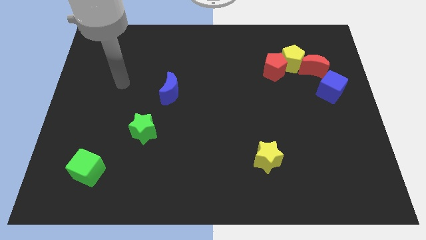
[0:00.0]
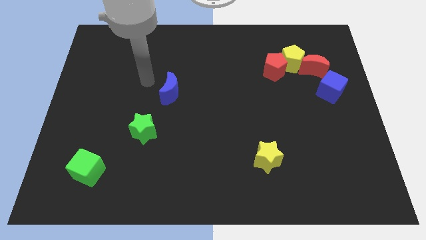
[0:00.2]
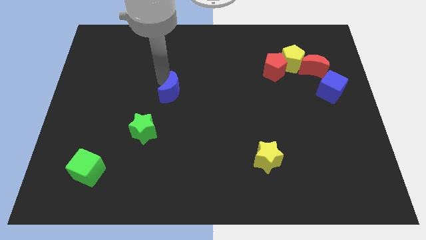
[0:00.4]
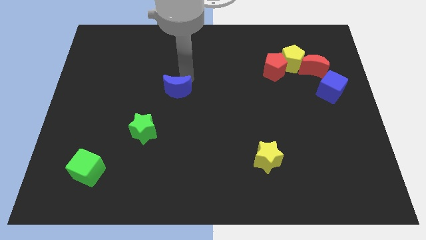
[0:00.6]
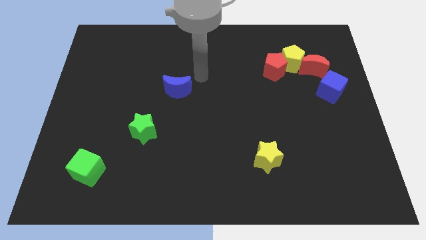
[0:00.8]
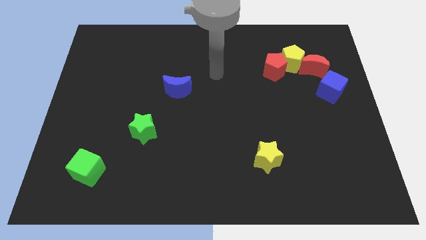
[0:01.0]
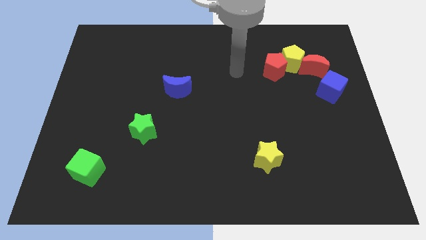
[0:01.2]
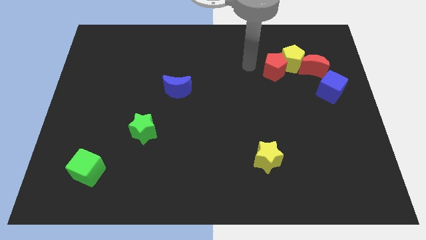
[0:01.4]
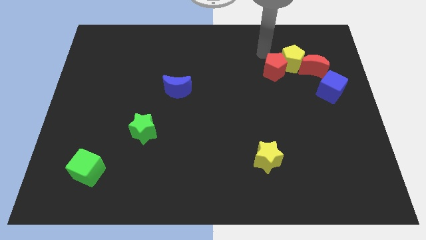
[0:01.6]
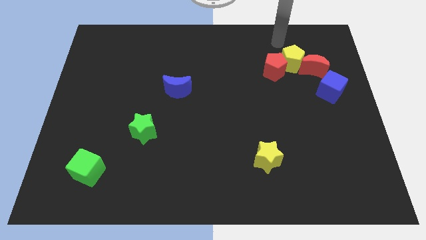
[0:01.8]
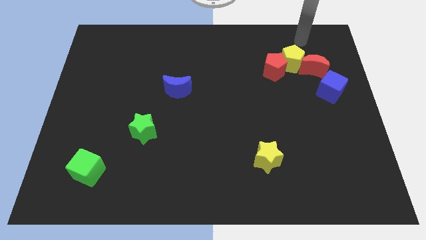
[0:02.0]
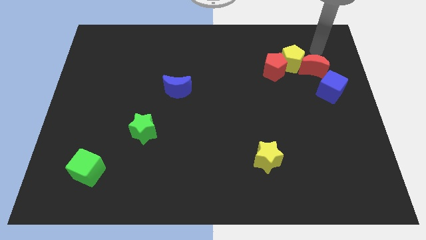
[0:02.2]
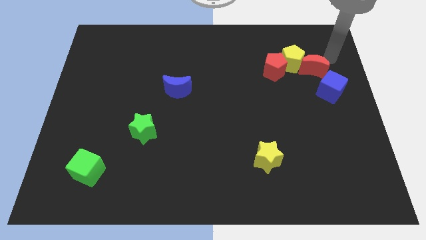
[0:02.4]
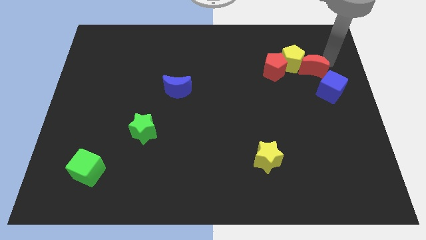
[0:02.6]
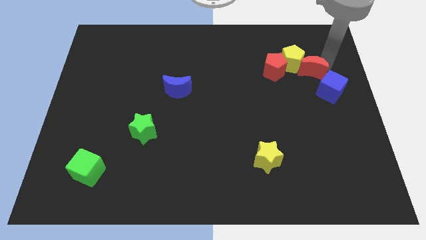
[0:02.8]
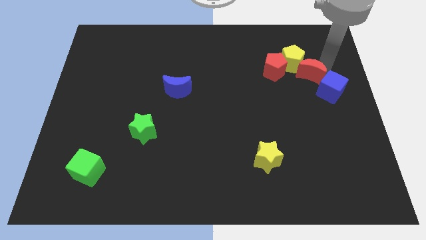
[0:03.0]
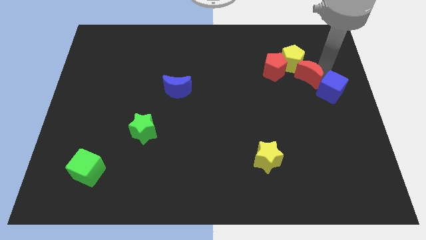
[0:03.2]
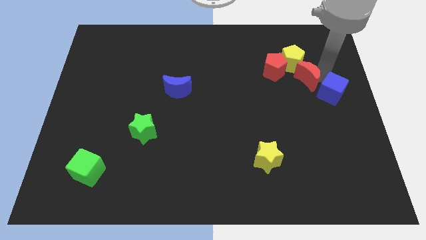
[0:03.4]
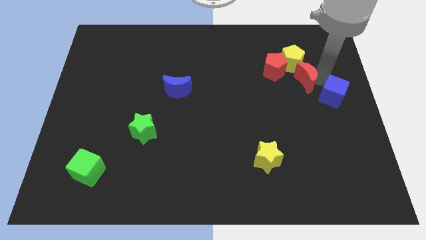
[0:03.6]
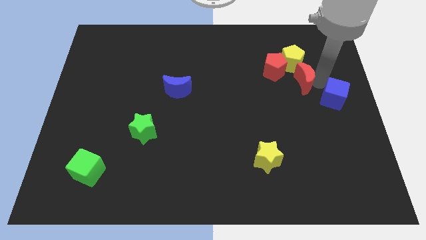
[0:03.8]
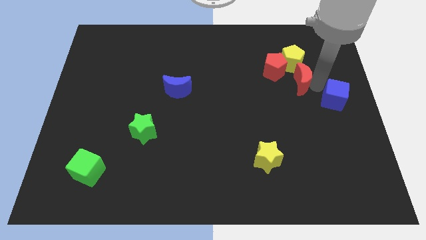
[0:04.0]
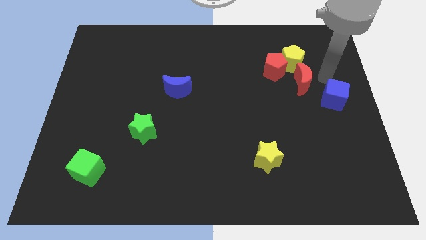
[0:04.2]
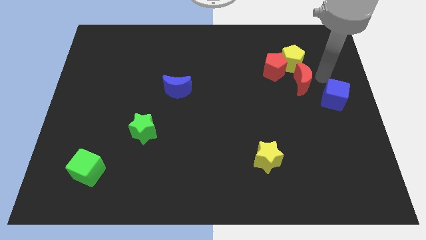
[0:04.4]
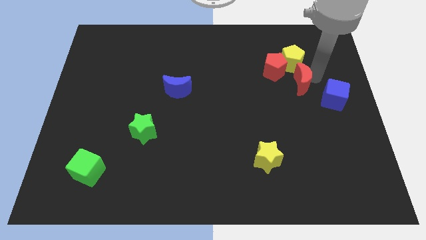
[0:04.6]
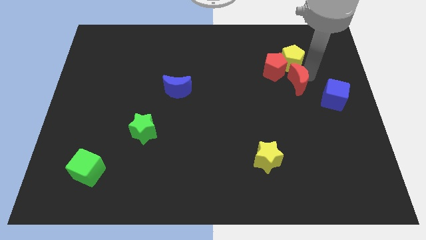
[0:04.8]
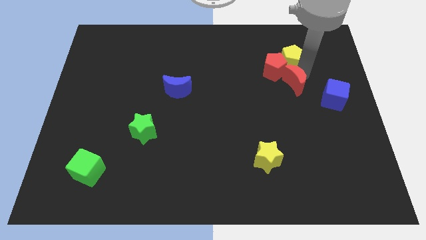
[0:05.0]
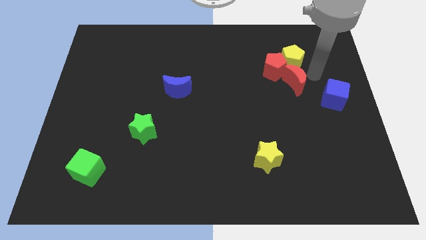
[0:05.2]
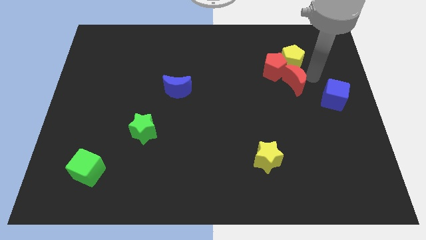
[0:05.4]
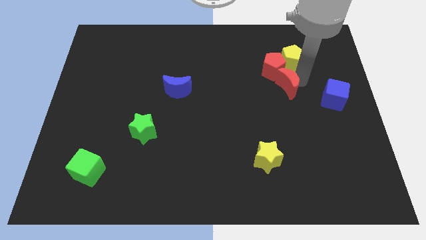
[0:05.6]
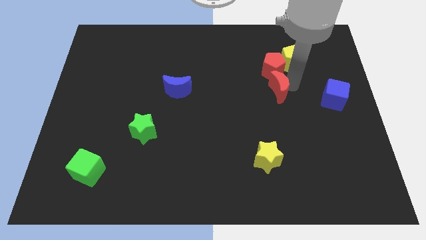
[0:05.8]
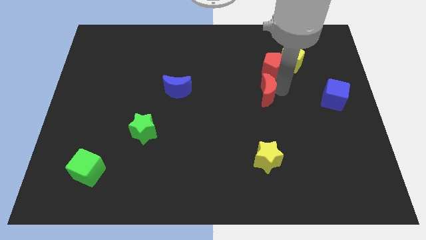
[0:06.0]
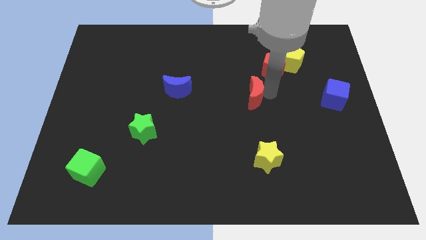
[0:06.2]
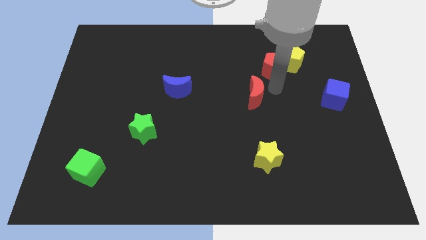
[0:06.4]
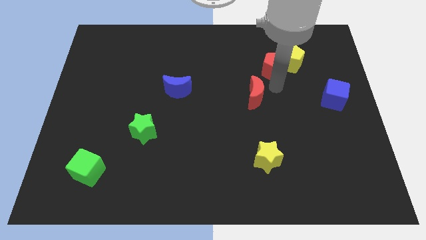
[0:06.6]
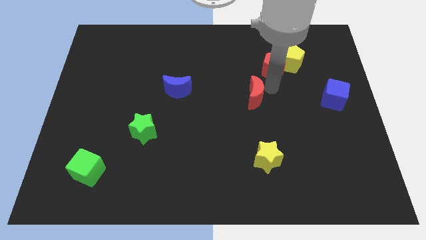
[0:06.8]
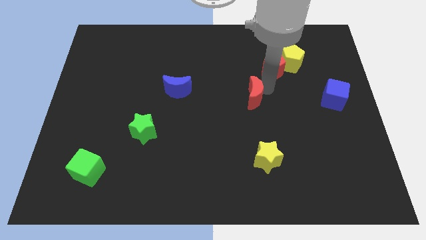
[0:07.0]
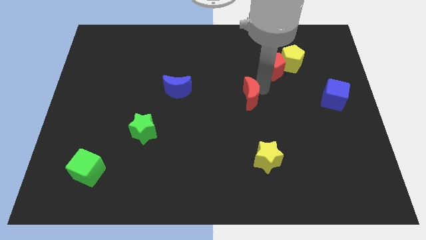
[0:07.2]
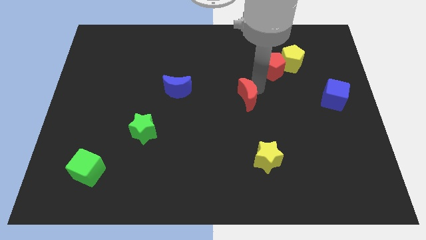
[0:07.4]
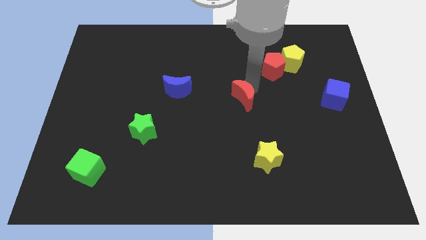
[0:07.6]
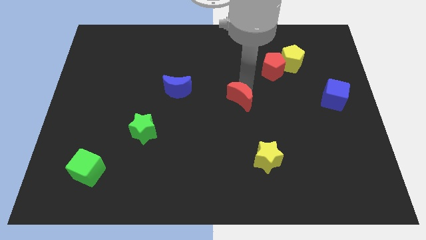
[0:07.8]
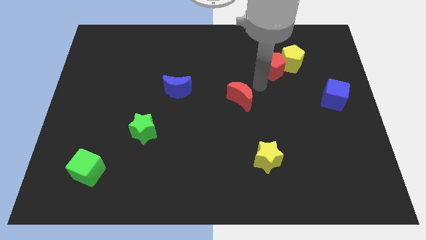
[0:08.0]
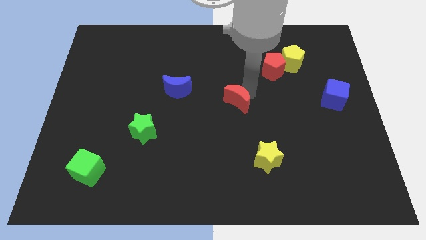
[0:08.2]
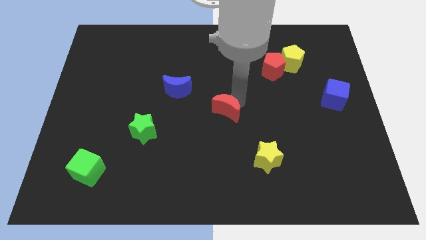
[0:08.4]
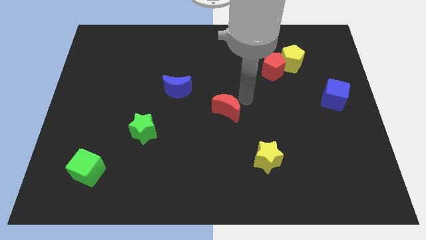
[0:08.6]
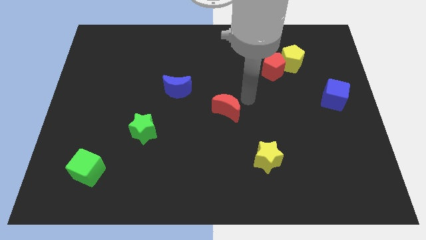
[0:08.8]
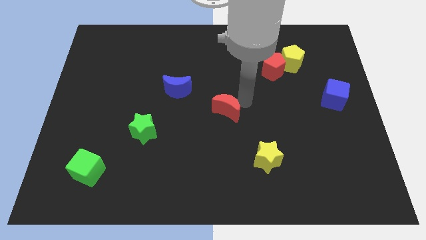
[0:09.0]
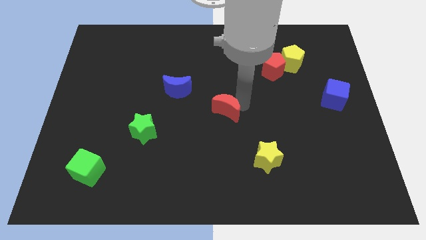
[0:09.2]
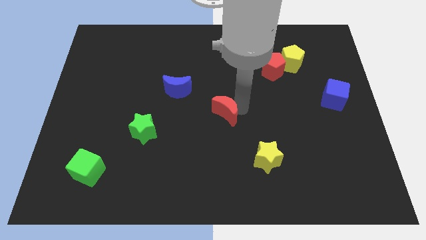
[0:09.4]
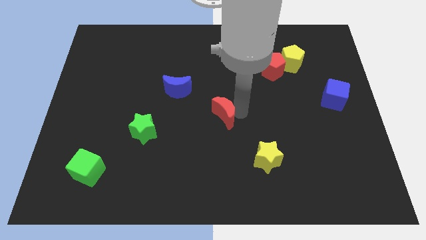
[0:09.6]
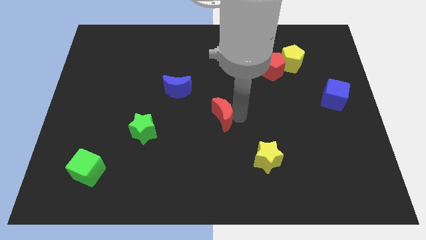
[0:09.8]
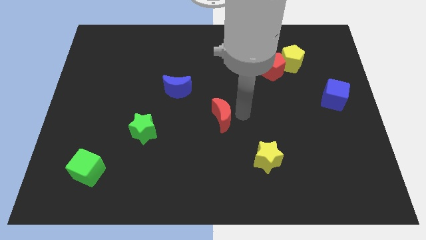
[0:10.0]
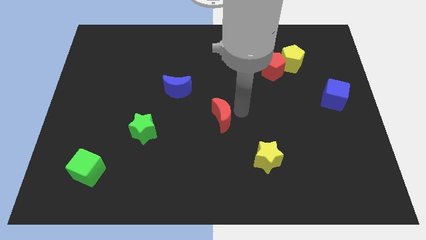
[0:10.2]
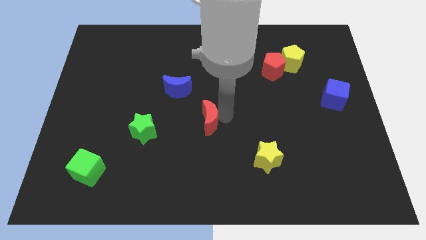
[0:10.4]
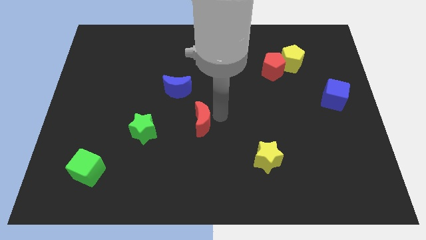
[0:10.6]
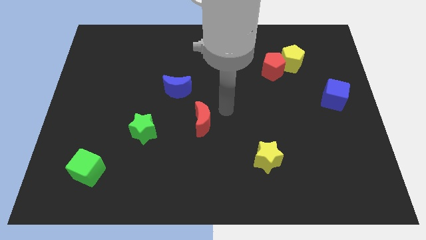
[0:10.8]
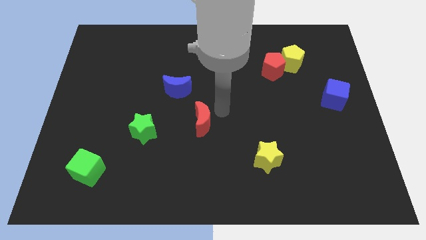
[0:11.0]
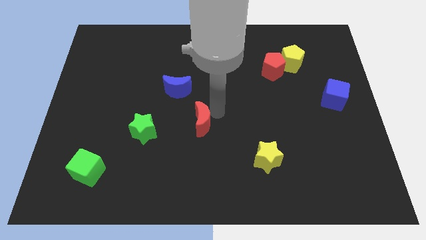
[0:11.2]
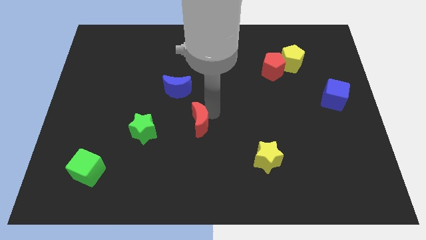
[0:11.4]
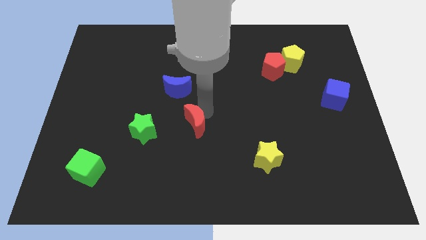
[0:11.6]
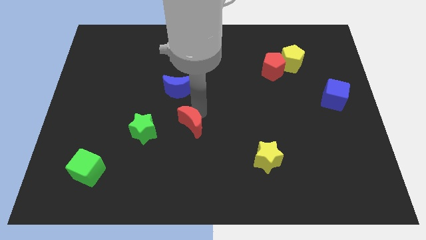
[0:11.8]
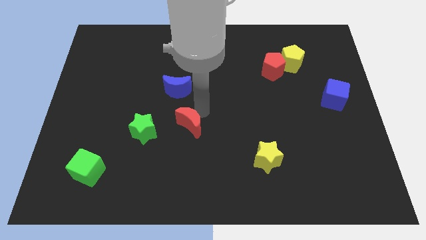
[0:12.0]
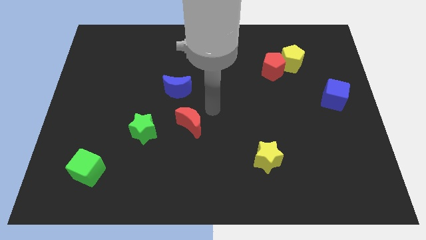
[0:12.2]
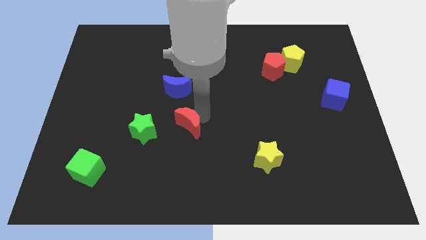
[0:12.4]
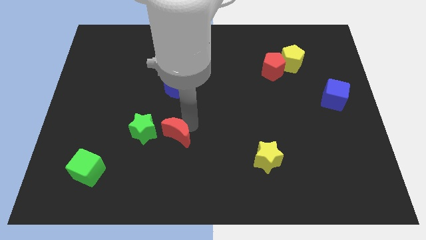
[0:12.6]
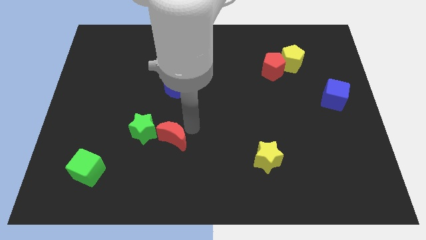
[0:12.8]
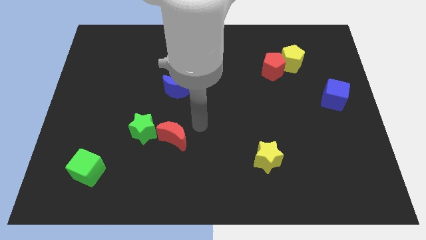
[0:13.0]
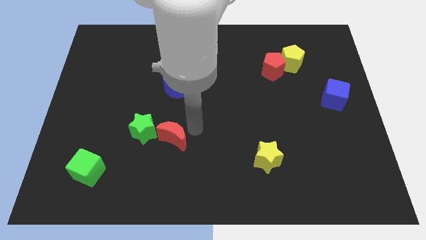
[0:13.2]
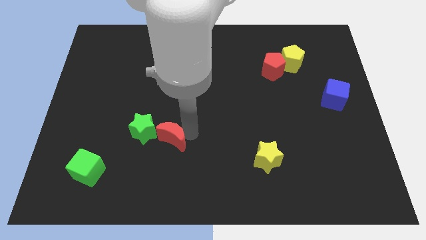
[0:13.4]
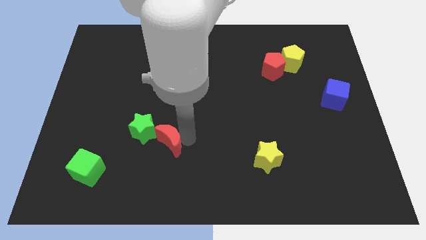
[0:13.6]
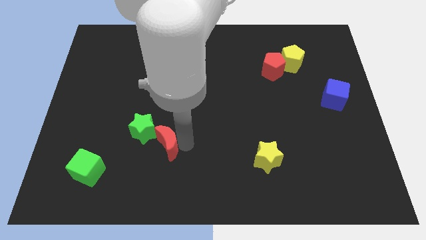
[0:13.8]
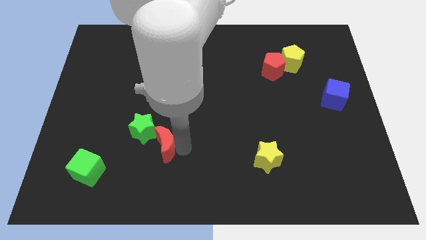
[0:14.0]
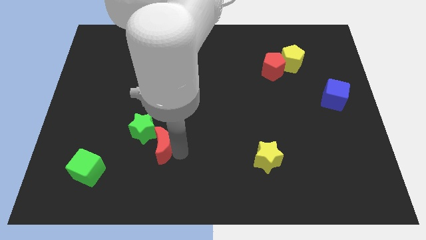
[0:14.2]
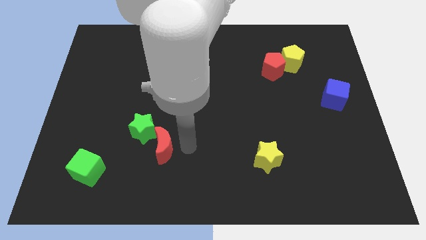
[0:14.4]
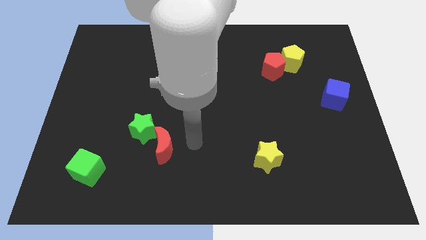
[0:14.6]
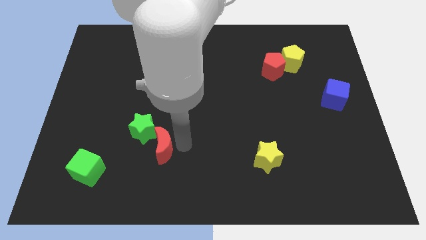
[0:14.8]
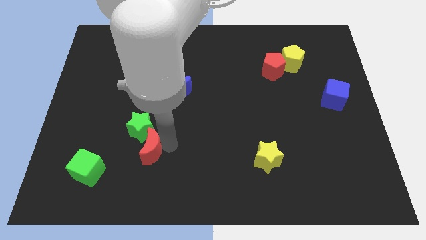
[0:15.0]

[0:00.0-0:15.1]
move the red moon just right of the green cube
